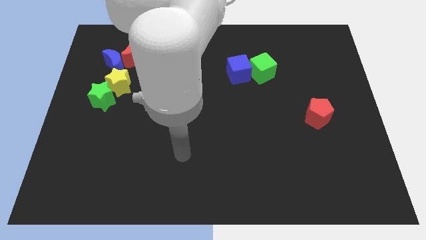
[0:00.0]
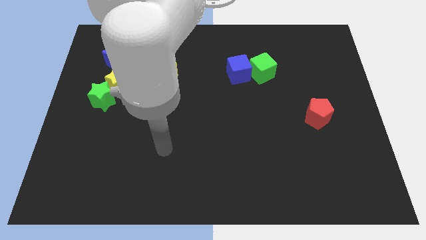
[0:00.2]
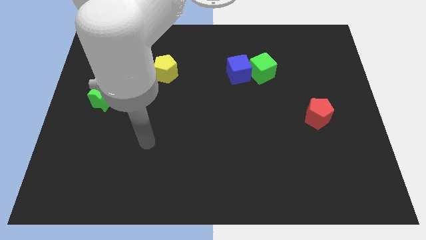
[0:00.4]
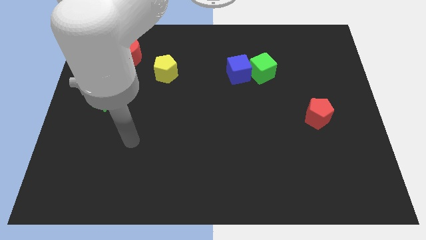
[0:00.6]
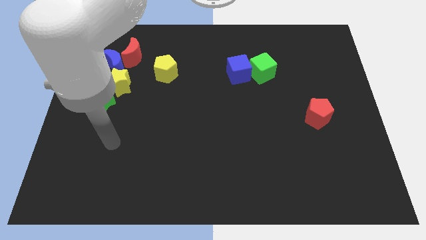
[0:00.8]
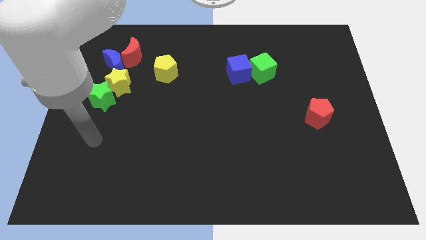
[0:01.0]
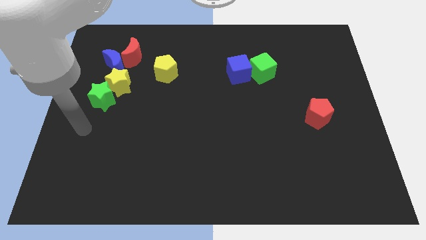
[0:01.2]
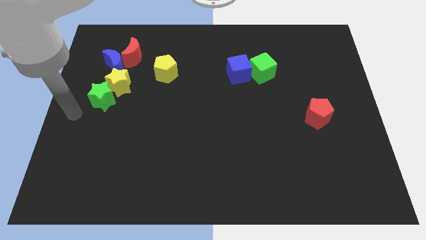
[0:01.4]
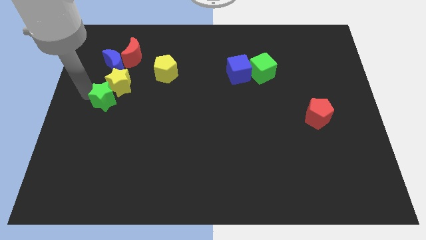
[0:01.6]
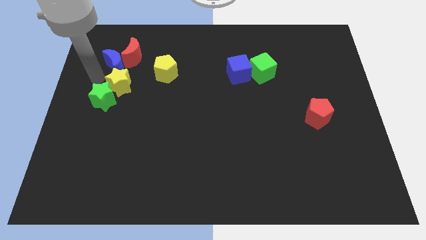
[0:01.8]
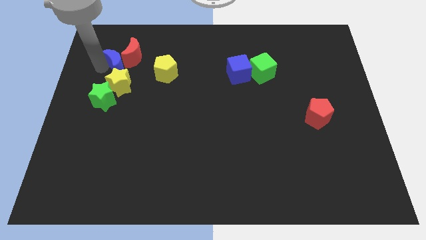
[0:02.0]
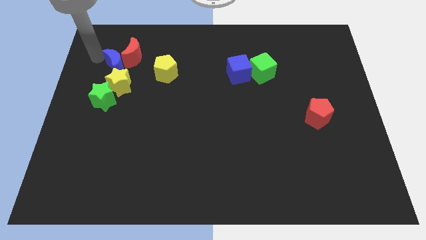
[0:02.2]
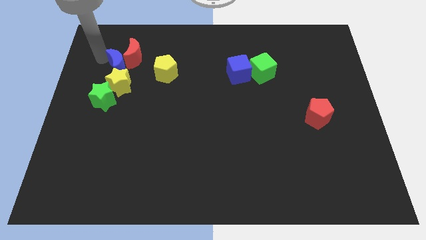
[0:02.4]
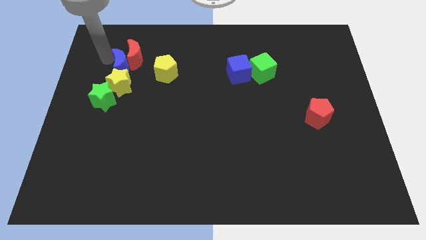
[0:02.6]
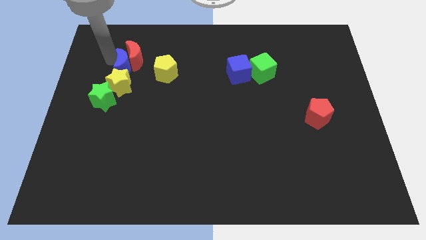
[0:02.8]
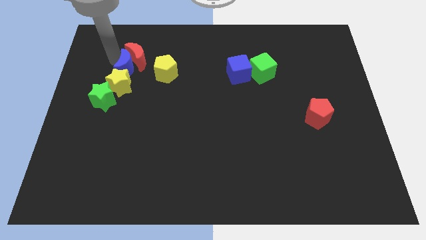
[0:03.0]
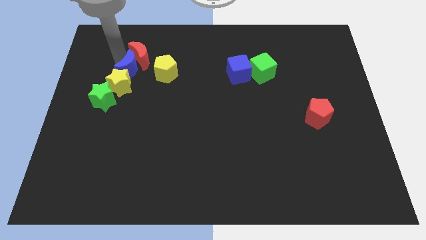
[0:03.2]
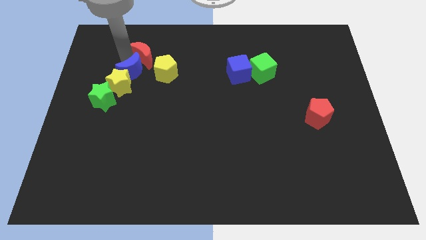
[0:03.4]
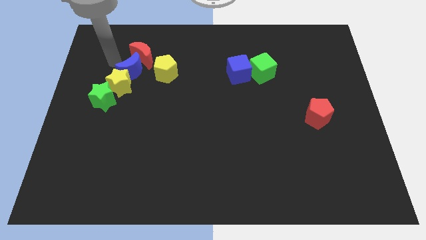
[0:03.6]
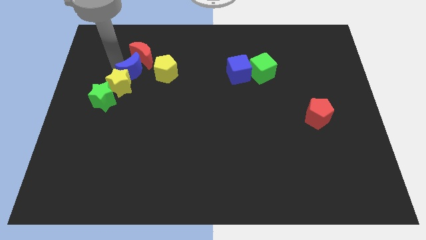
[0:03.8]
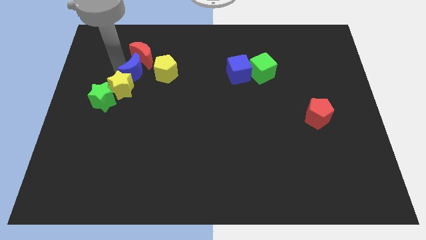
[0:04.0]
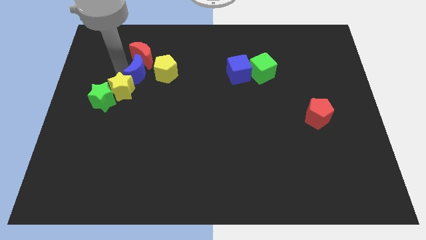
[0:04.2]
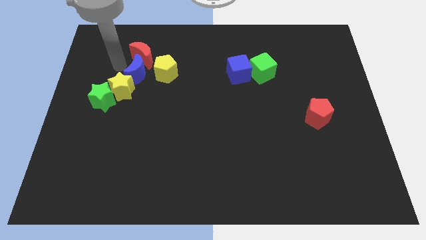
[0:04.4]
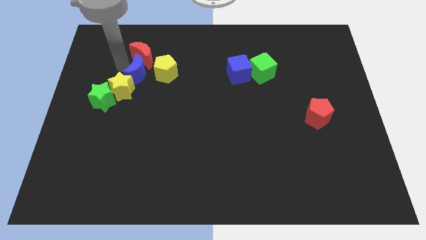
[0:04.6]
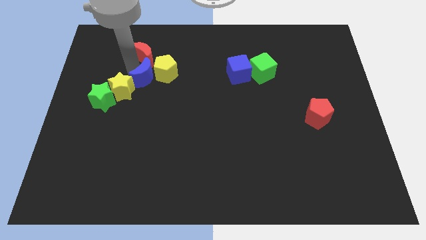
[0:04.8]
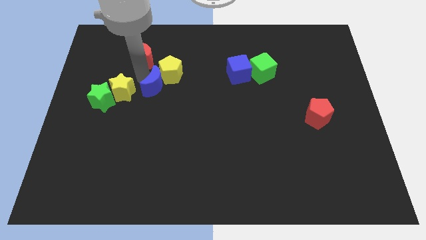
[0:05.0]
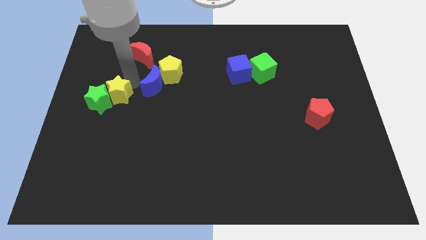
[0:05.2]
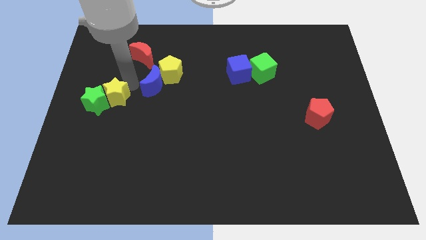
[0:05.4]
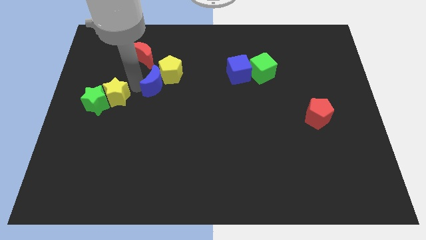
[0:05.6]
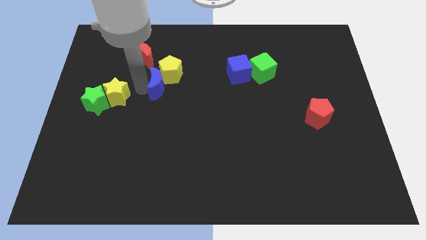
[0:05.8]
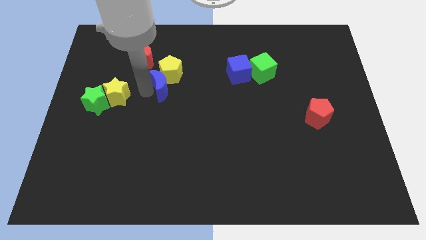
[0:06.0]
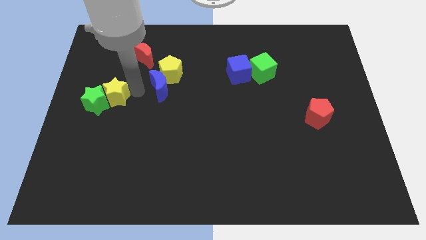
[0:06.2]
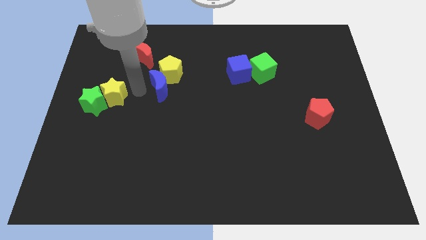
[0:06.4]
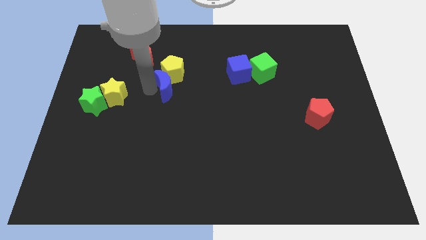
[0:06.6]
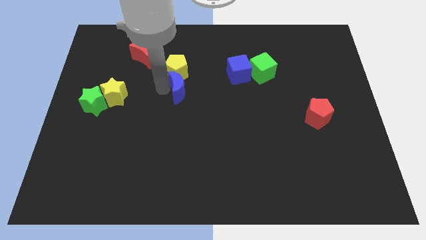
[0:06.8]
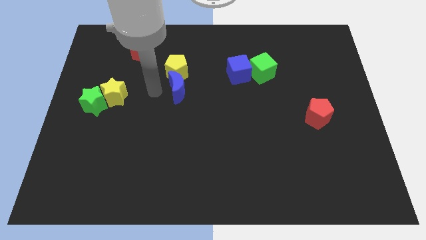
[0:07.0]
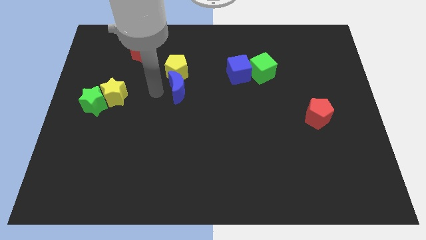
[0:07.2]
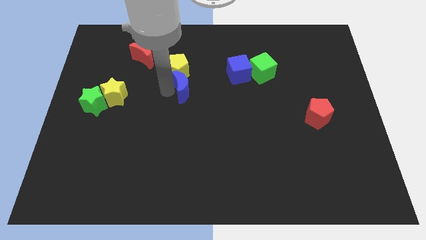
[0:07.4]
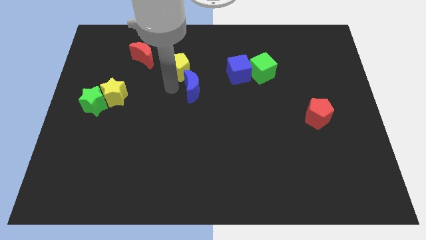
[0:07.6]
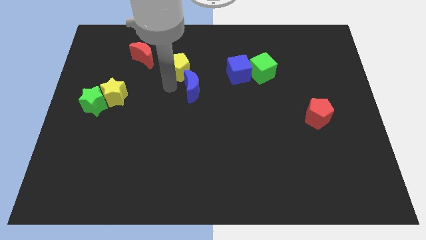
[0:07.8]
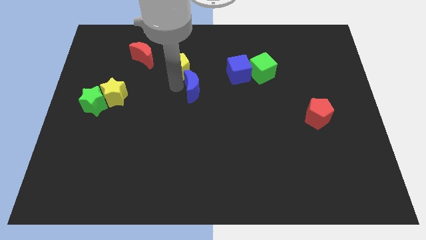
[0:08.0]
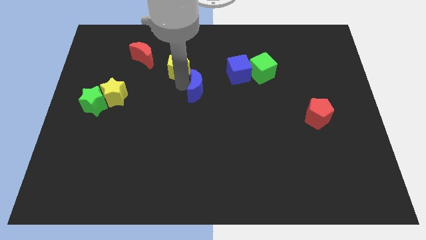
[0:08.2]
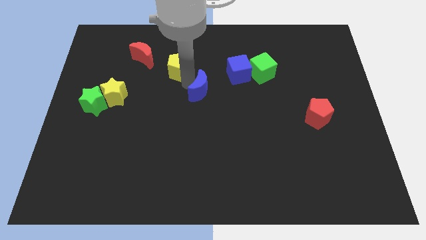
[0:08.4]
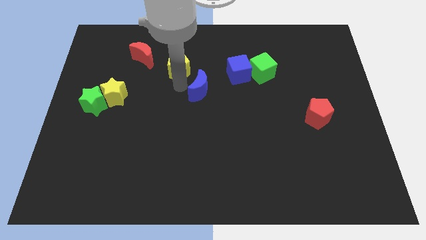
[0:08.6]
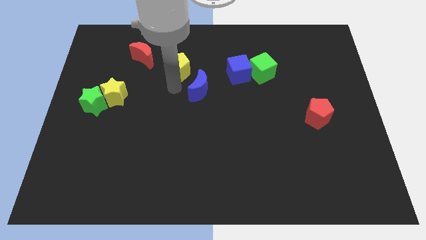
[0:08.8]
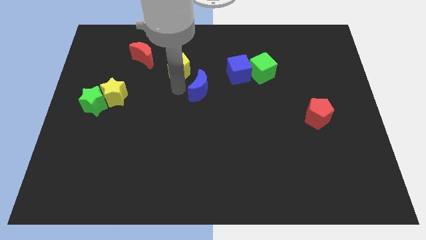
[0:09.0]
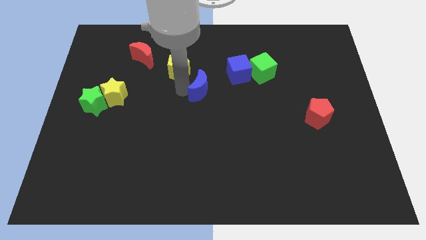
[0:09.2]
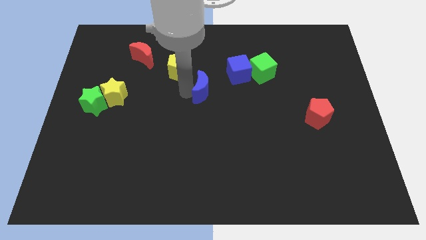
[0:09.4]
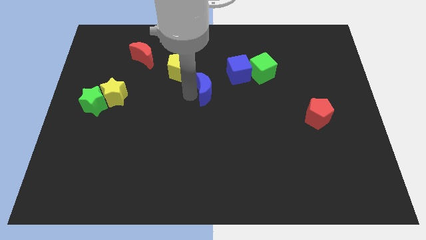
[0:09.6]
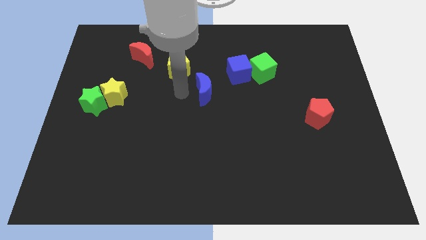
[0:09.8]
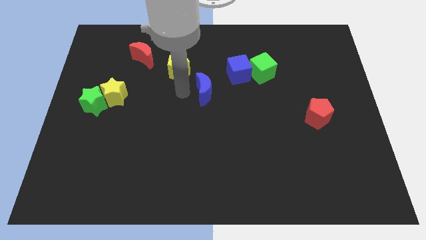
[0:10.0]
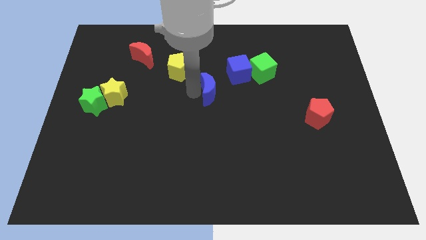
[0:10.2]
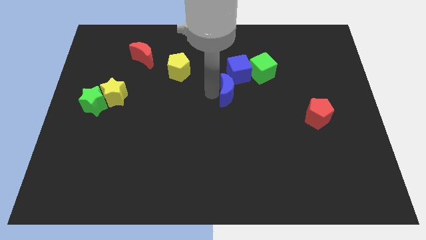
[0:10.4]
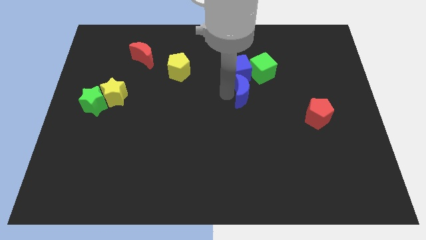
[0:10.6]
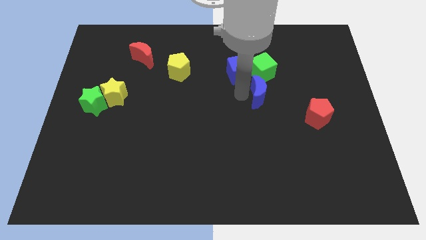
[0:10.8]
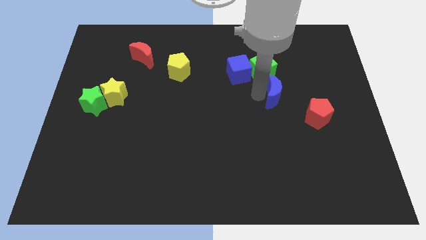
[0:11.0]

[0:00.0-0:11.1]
move the blue moon diagonally up and to the left of the red pentagon

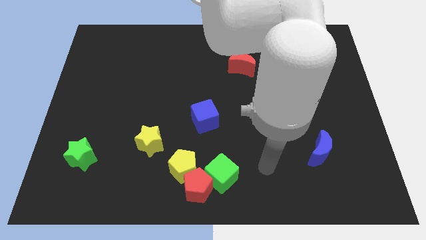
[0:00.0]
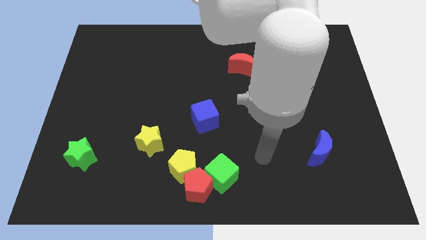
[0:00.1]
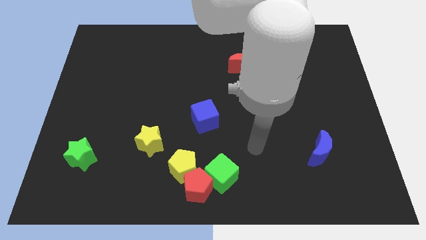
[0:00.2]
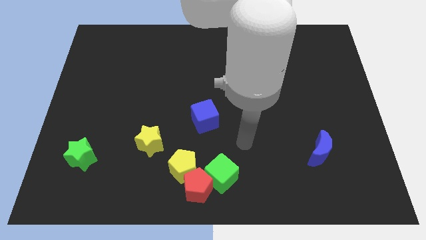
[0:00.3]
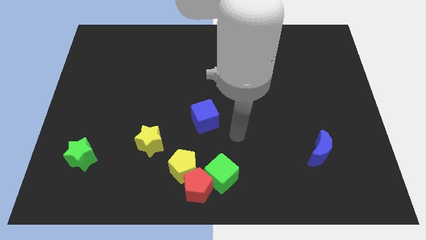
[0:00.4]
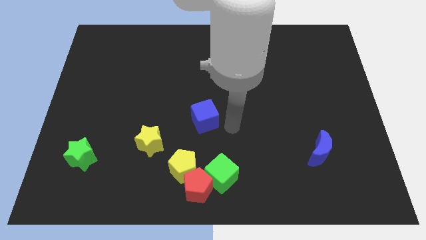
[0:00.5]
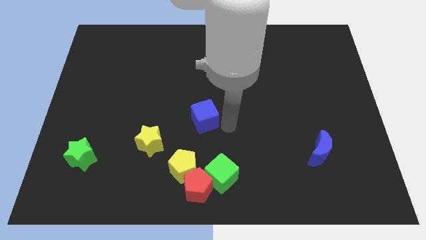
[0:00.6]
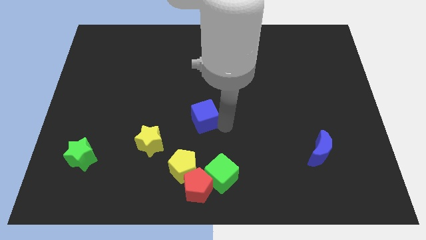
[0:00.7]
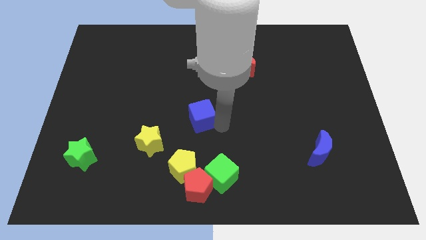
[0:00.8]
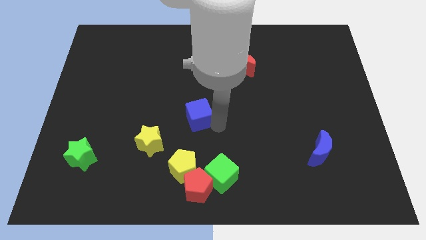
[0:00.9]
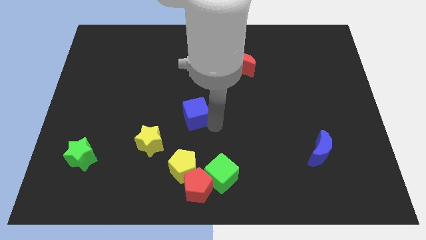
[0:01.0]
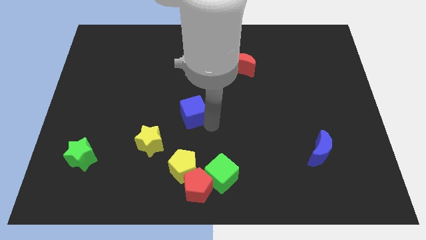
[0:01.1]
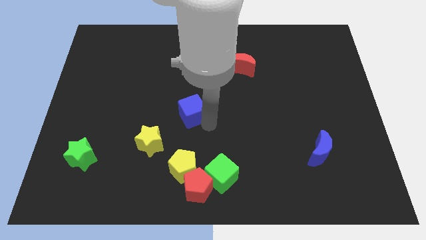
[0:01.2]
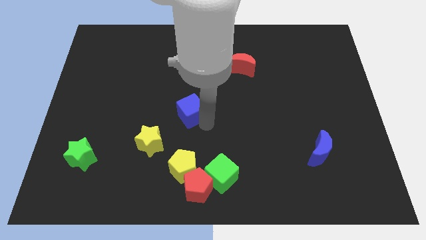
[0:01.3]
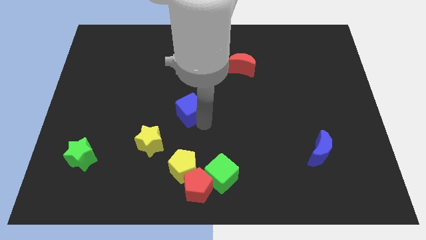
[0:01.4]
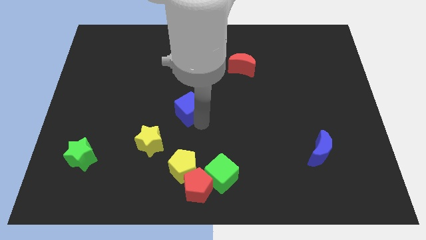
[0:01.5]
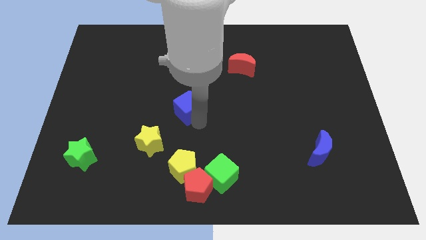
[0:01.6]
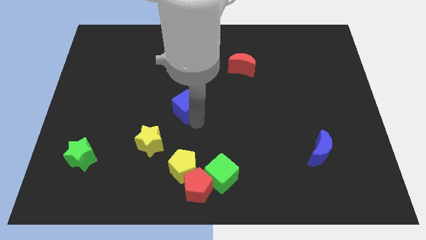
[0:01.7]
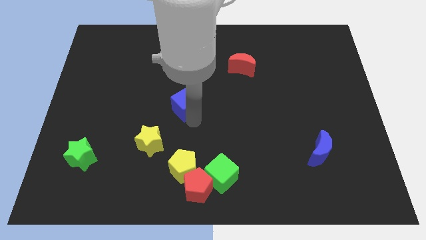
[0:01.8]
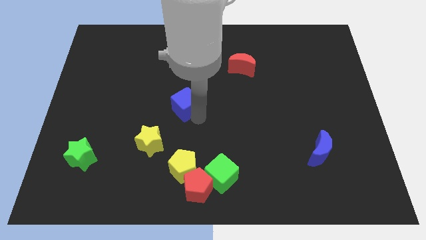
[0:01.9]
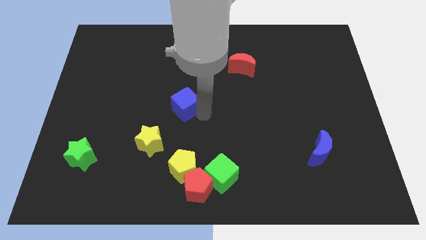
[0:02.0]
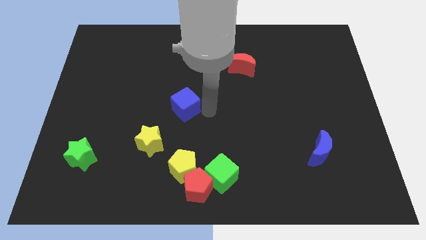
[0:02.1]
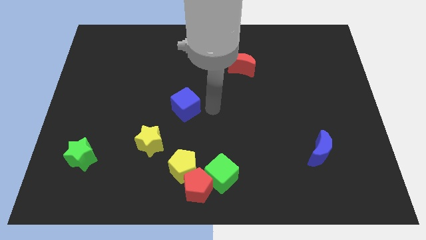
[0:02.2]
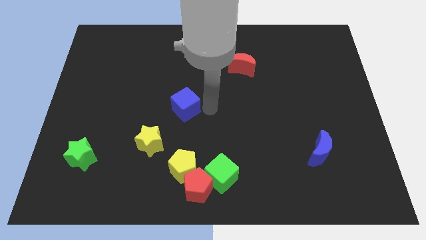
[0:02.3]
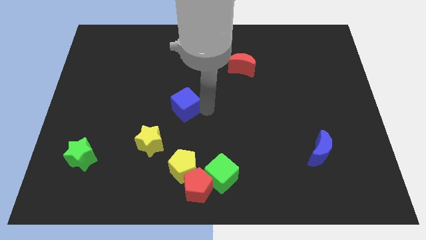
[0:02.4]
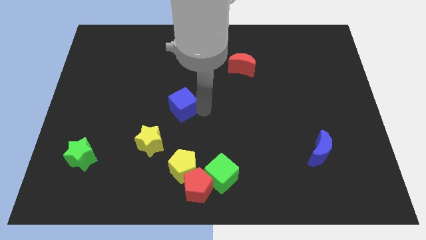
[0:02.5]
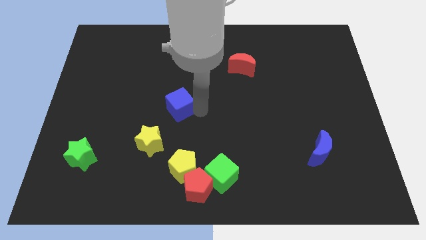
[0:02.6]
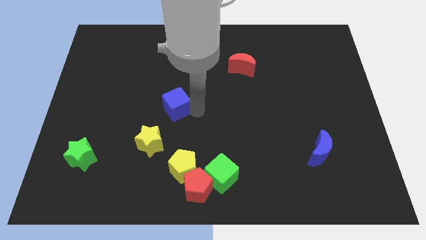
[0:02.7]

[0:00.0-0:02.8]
move the blue cube above the yellow star
